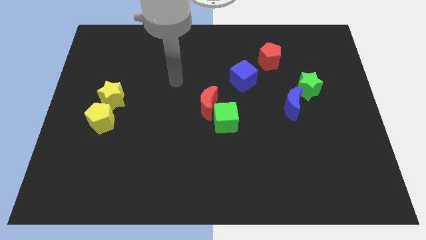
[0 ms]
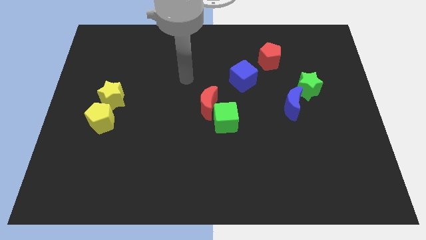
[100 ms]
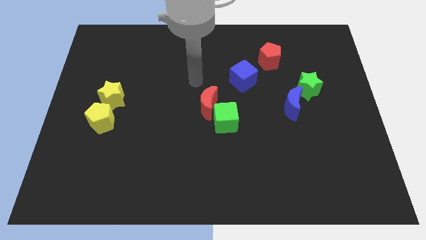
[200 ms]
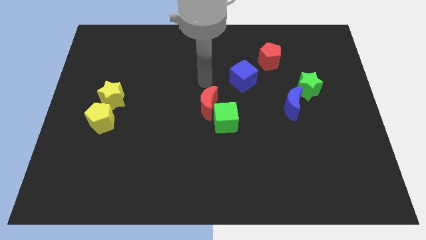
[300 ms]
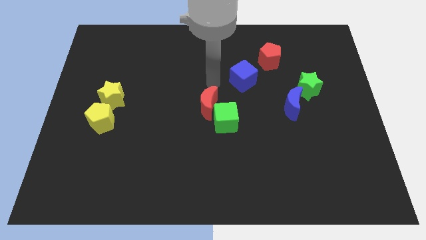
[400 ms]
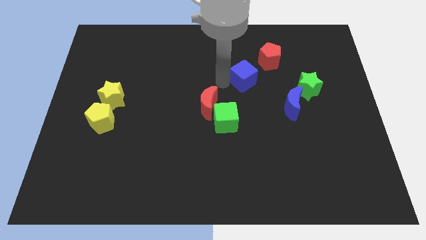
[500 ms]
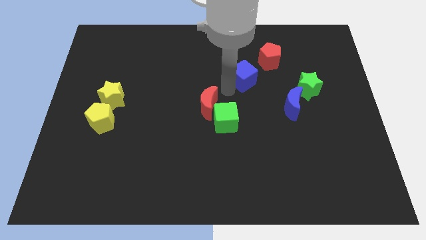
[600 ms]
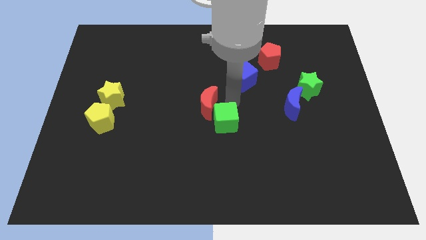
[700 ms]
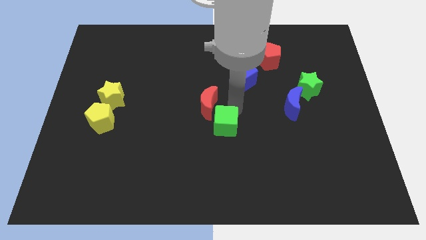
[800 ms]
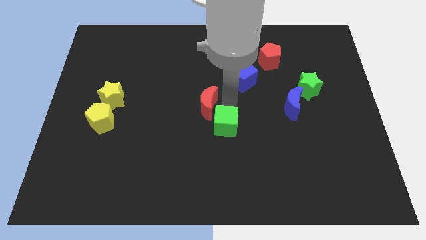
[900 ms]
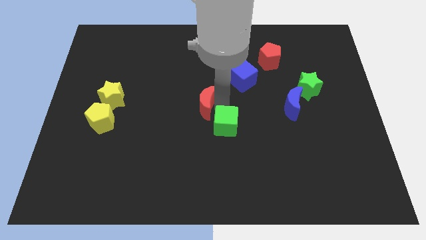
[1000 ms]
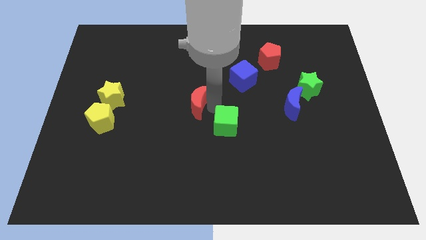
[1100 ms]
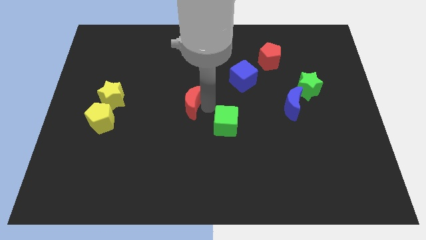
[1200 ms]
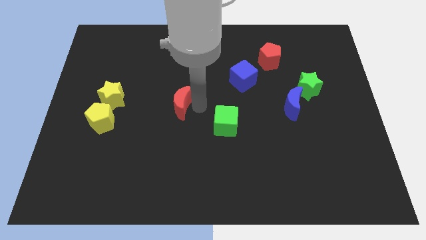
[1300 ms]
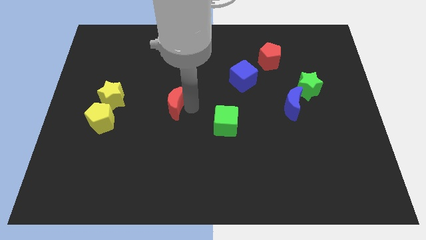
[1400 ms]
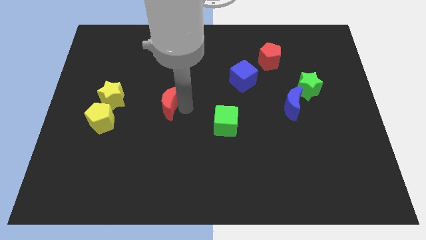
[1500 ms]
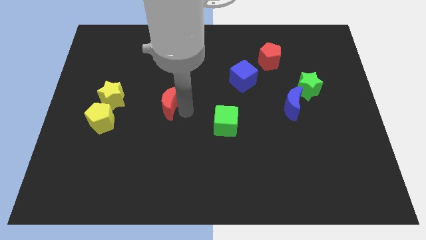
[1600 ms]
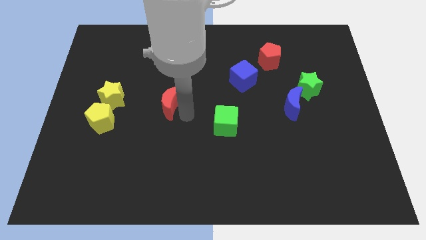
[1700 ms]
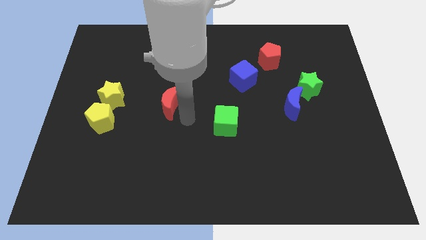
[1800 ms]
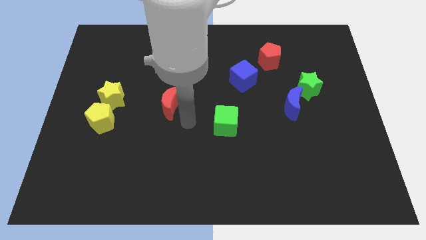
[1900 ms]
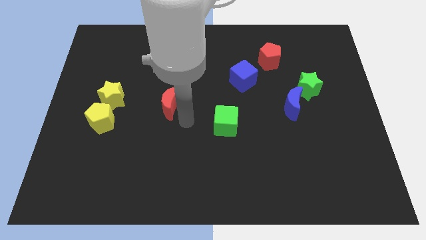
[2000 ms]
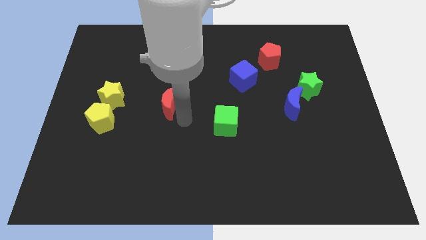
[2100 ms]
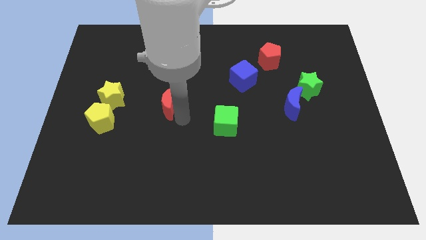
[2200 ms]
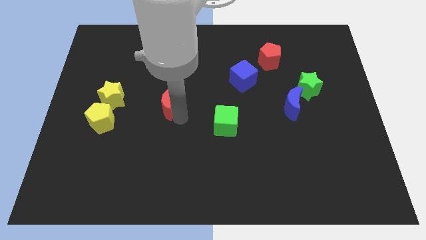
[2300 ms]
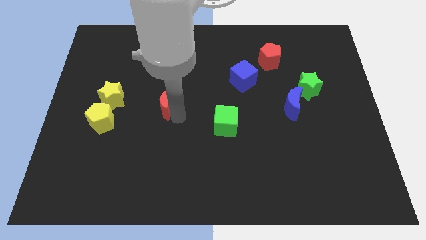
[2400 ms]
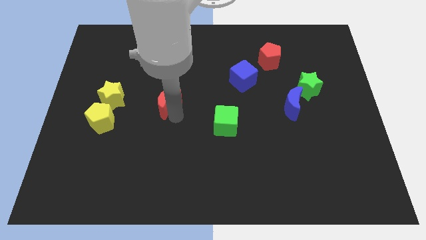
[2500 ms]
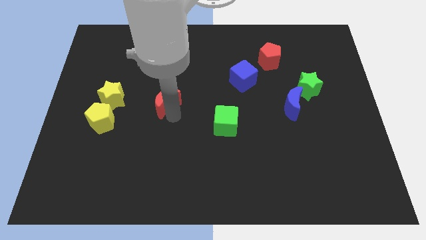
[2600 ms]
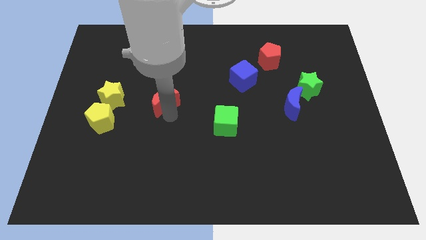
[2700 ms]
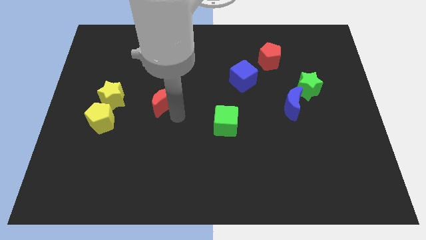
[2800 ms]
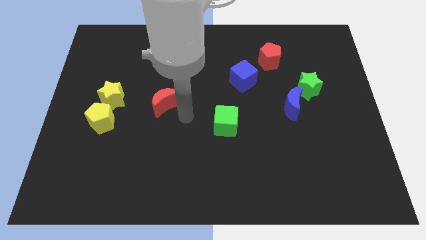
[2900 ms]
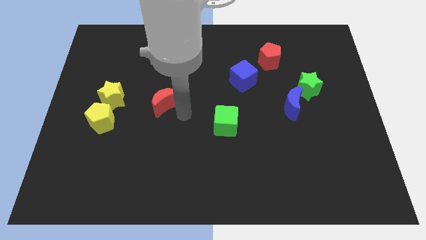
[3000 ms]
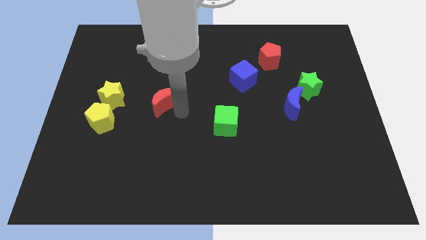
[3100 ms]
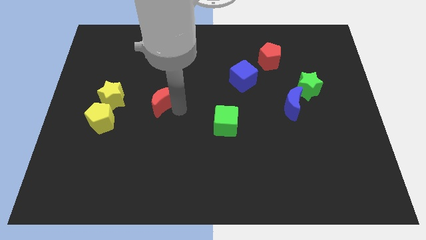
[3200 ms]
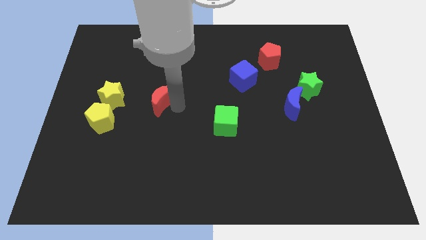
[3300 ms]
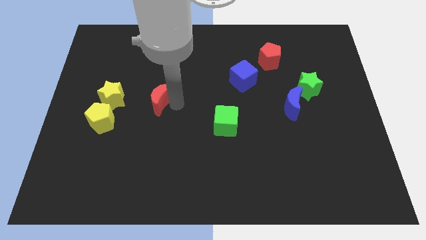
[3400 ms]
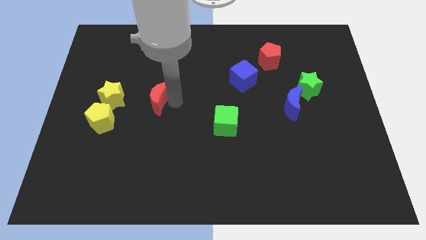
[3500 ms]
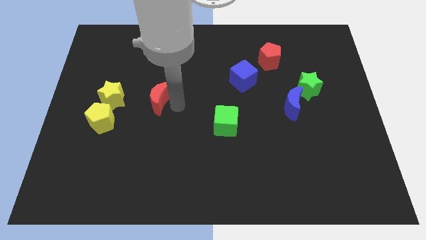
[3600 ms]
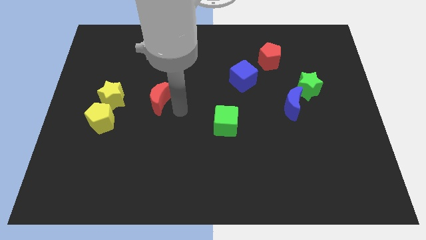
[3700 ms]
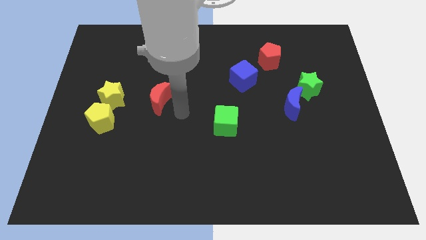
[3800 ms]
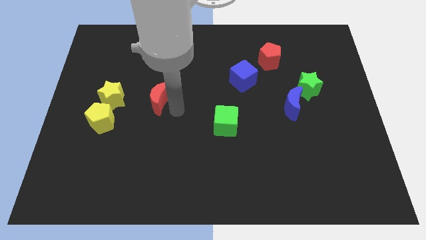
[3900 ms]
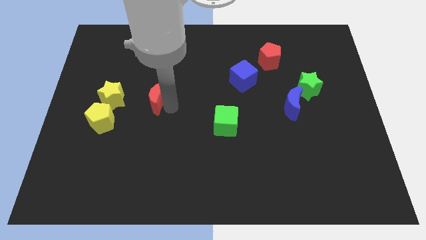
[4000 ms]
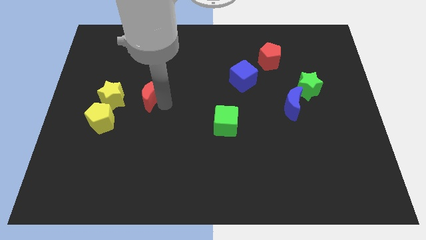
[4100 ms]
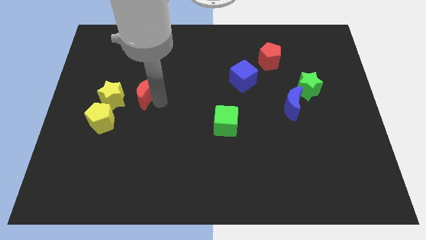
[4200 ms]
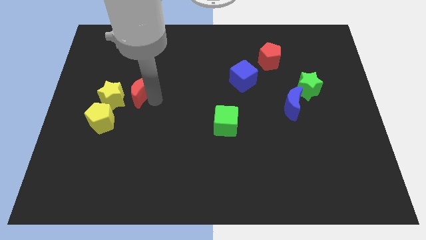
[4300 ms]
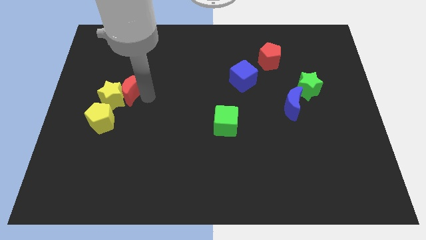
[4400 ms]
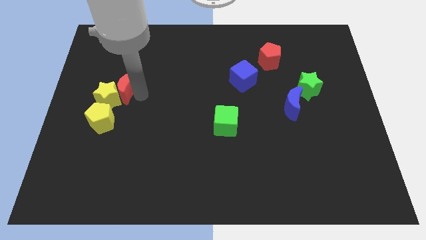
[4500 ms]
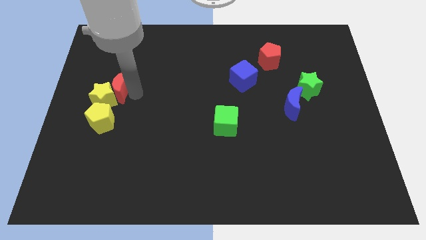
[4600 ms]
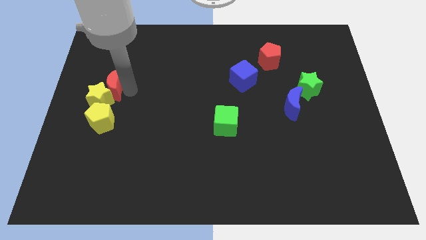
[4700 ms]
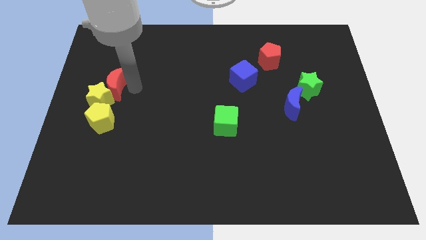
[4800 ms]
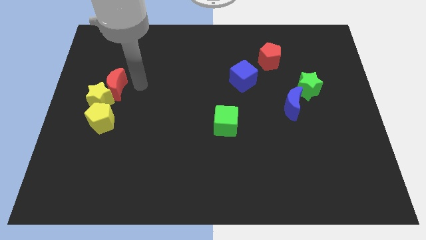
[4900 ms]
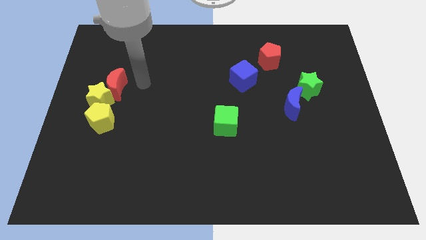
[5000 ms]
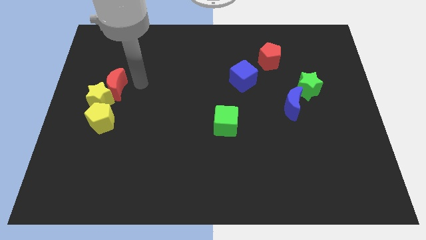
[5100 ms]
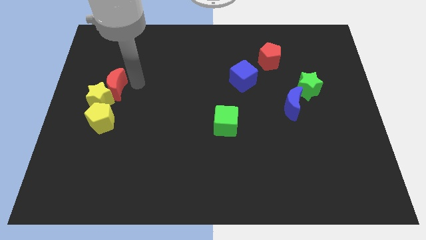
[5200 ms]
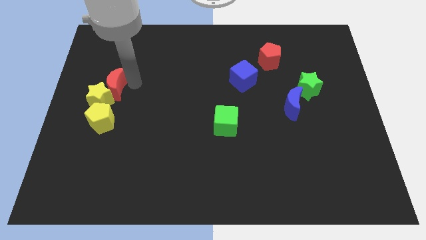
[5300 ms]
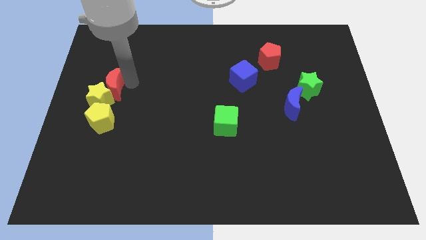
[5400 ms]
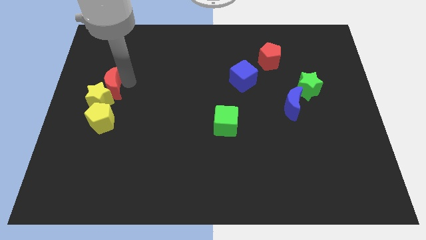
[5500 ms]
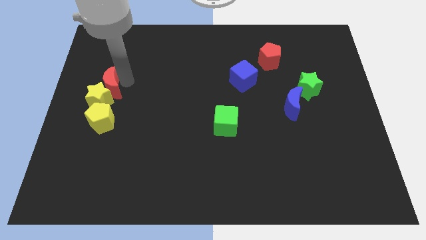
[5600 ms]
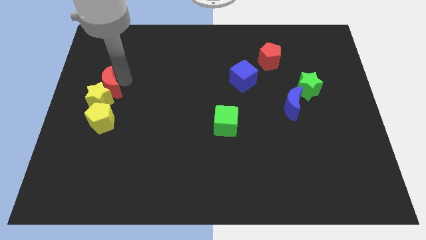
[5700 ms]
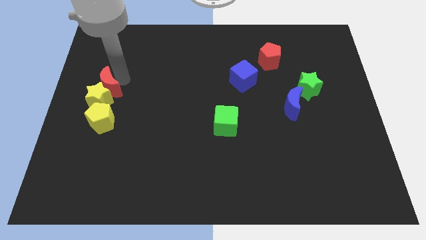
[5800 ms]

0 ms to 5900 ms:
push the red moon to the left side

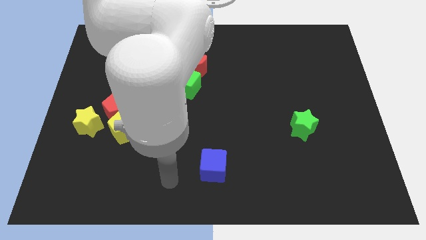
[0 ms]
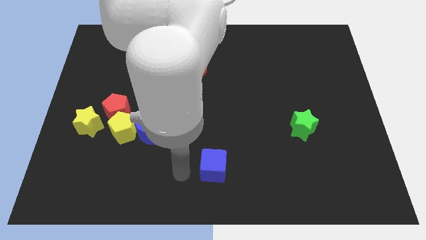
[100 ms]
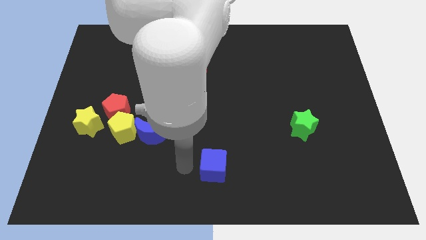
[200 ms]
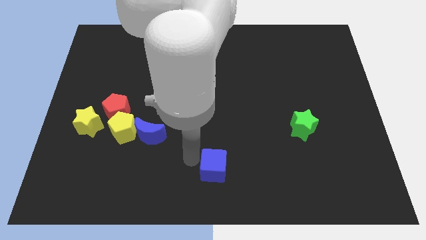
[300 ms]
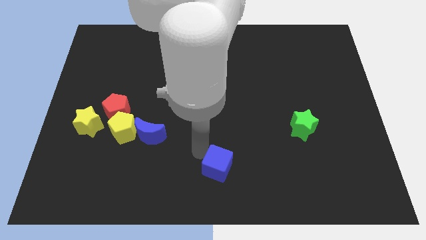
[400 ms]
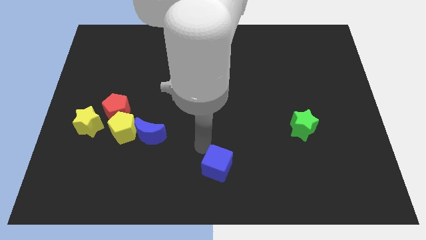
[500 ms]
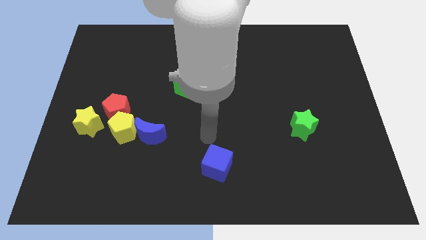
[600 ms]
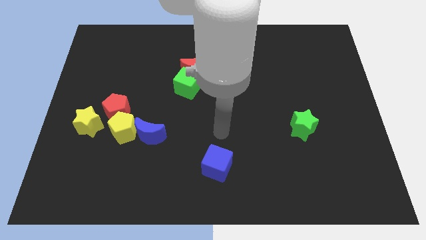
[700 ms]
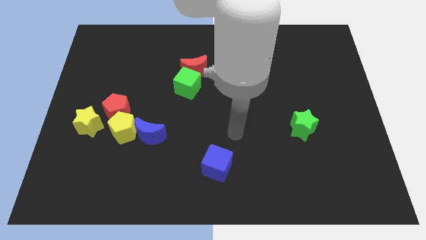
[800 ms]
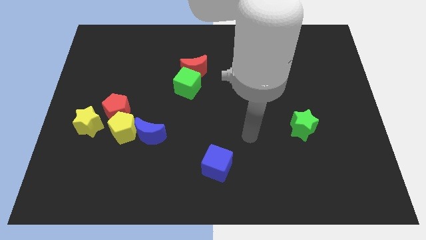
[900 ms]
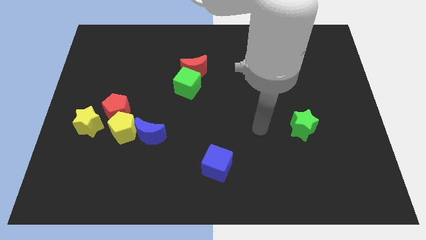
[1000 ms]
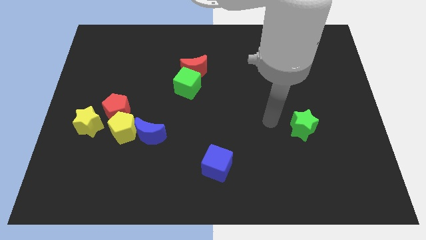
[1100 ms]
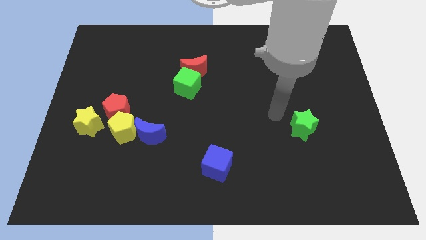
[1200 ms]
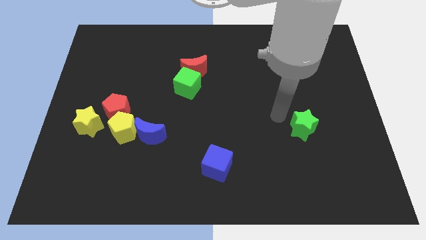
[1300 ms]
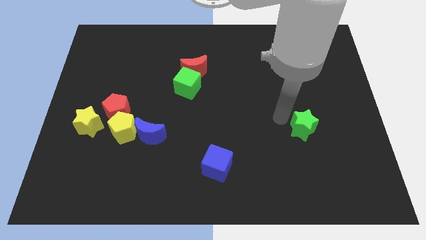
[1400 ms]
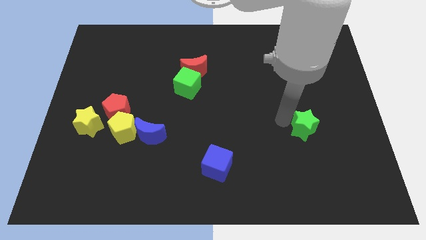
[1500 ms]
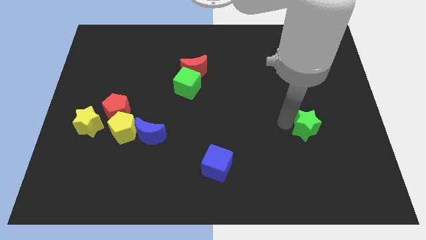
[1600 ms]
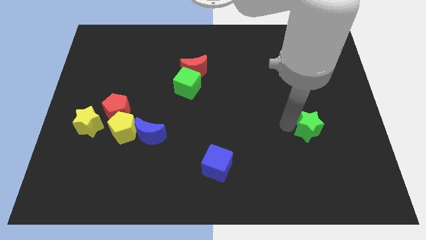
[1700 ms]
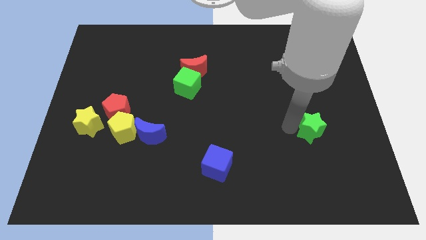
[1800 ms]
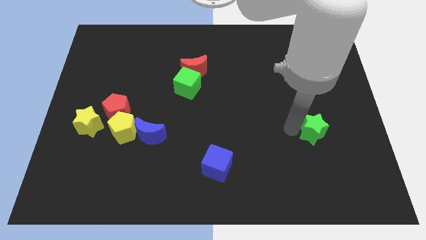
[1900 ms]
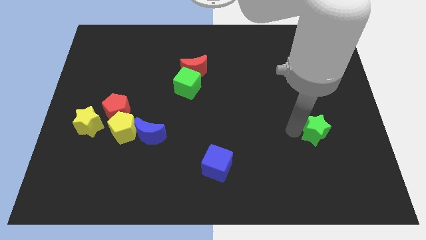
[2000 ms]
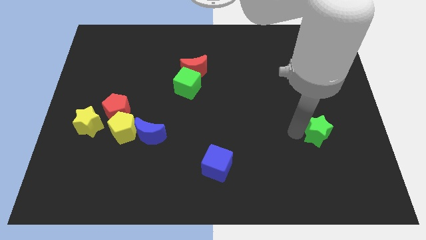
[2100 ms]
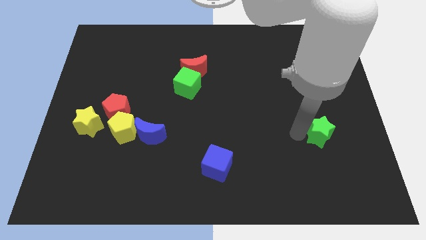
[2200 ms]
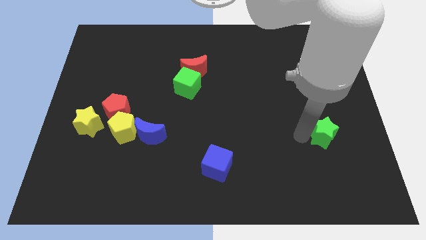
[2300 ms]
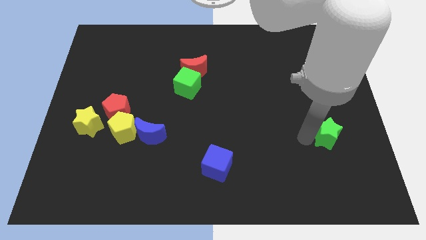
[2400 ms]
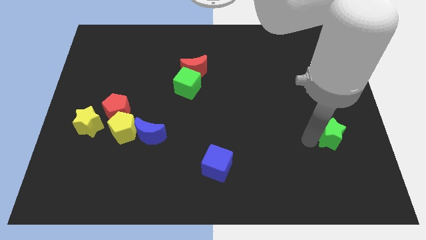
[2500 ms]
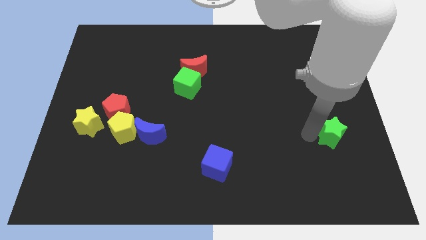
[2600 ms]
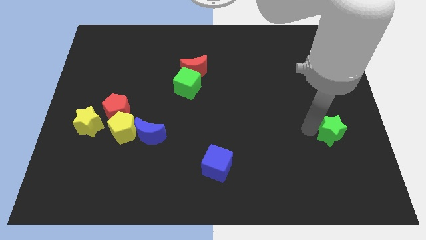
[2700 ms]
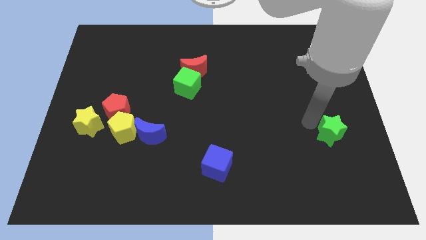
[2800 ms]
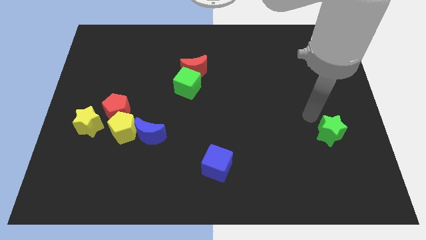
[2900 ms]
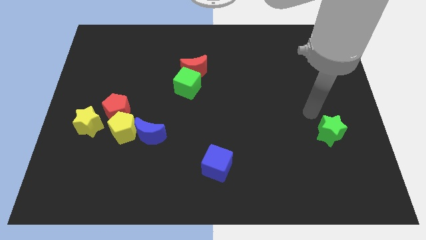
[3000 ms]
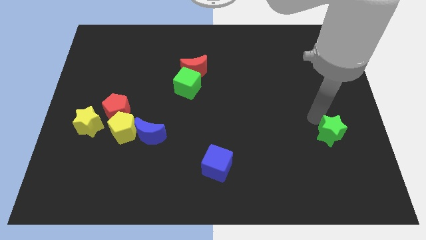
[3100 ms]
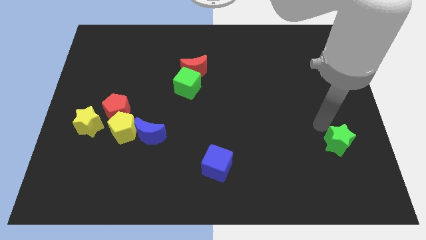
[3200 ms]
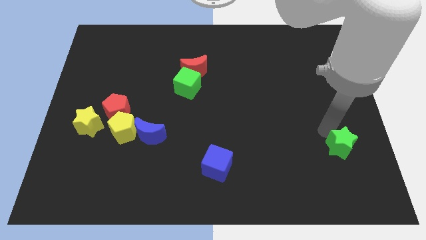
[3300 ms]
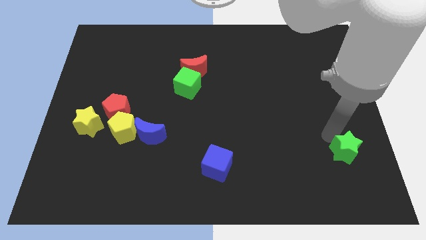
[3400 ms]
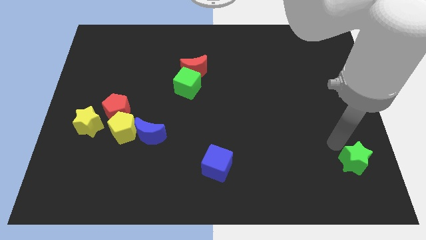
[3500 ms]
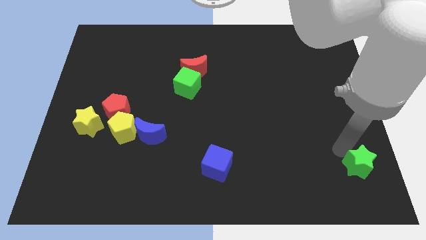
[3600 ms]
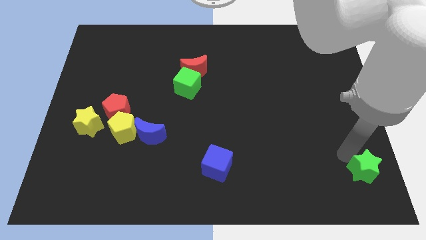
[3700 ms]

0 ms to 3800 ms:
push the green star to the bottom right of the board
